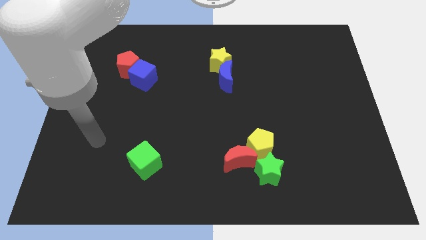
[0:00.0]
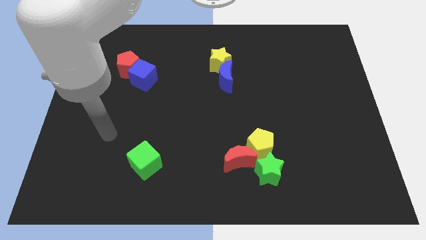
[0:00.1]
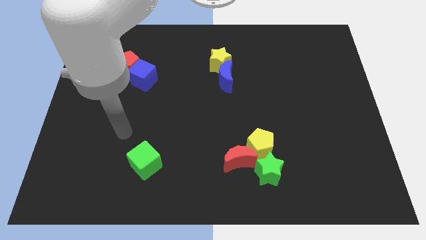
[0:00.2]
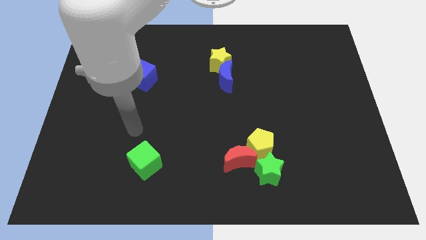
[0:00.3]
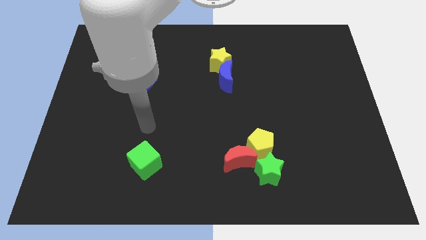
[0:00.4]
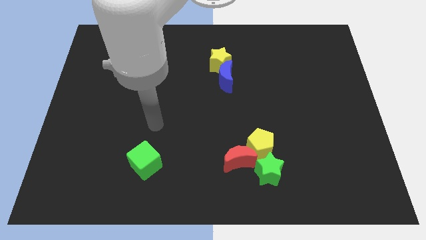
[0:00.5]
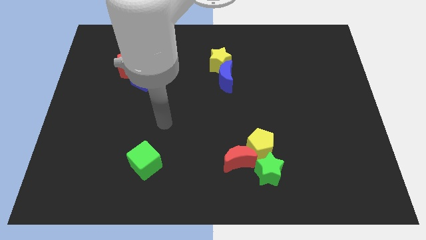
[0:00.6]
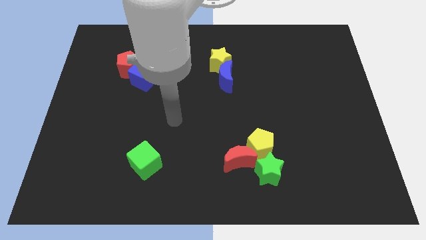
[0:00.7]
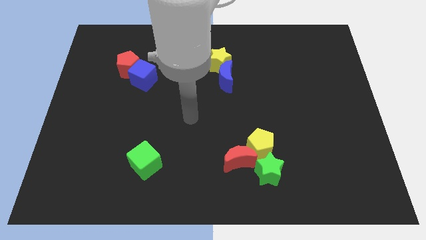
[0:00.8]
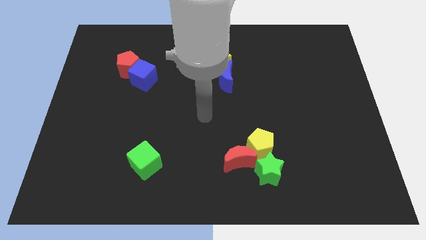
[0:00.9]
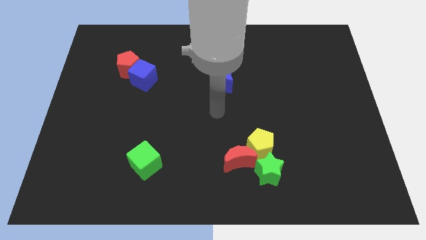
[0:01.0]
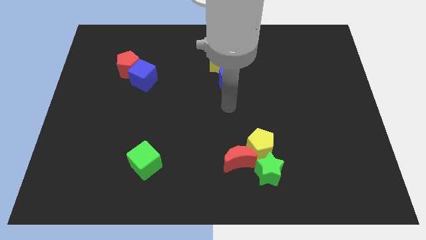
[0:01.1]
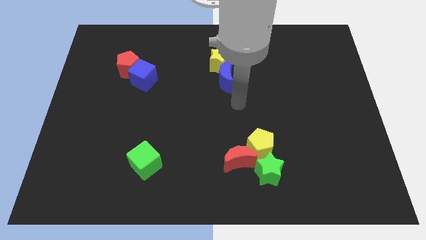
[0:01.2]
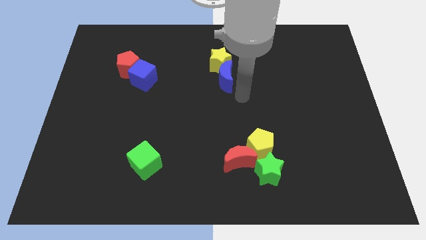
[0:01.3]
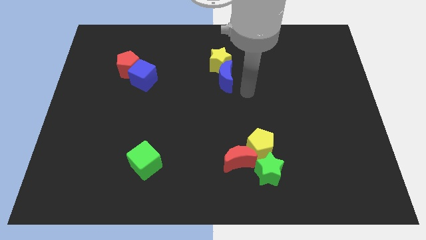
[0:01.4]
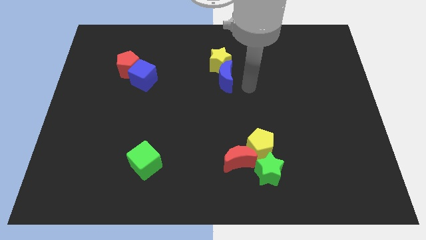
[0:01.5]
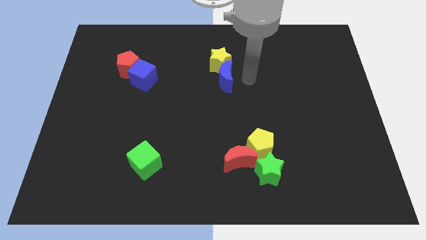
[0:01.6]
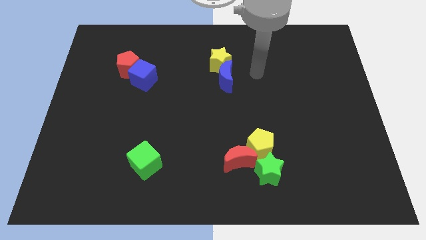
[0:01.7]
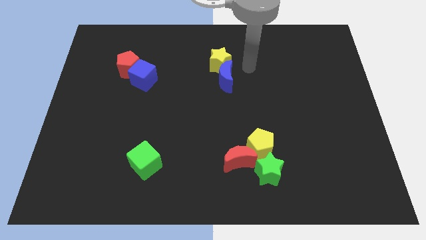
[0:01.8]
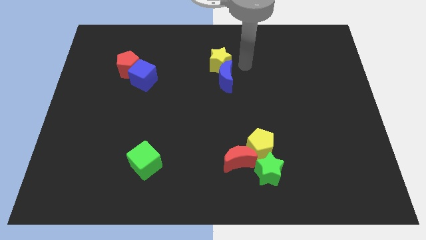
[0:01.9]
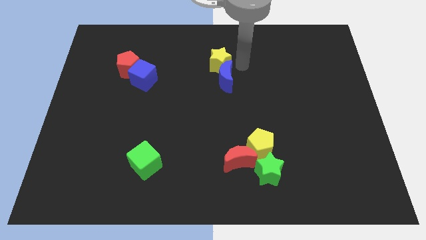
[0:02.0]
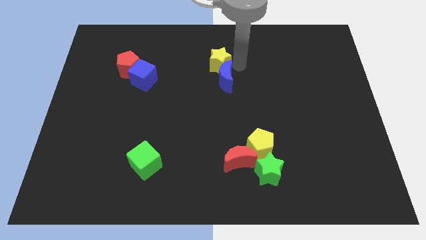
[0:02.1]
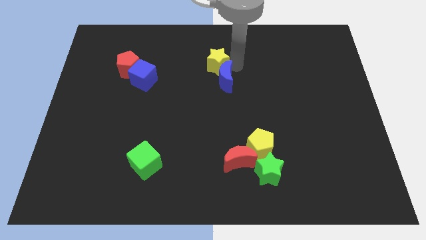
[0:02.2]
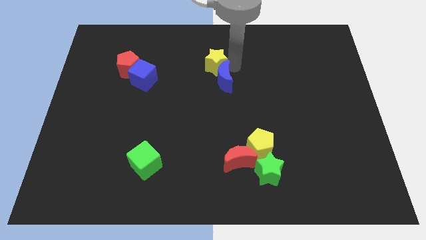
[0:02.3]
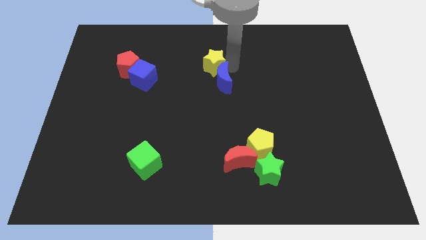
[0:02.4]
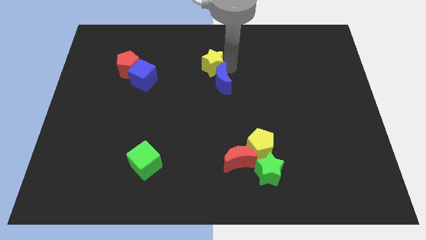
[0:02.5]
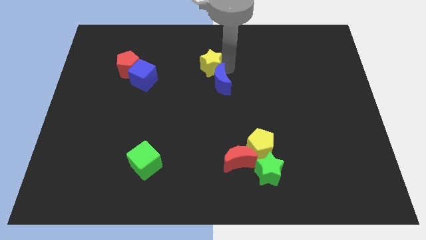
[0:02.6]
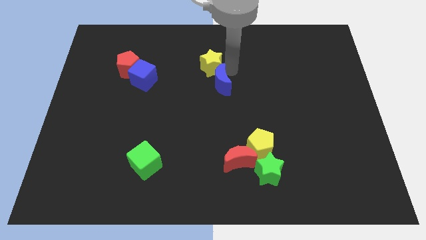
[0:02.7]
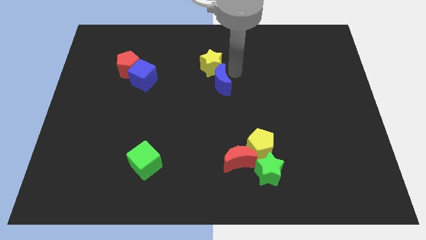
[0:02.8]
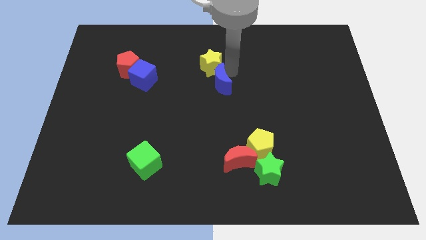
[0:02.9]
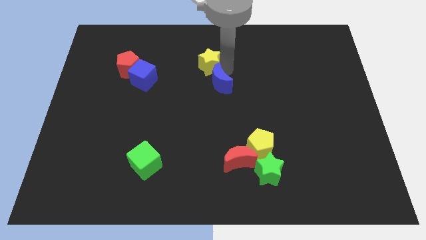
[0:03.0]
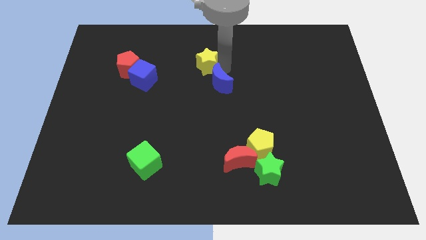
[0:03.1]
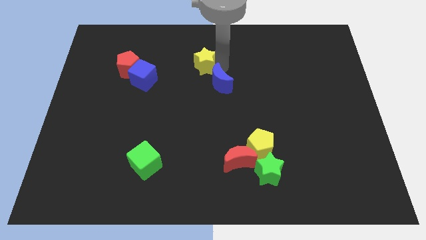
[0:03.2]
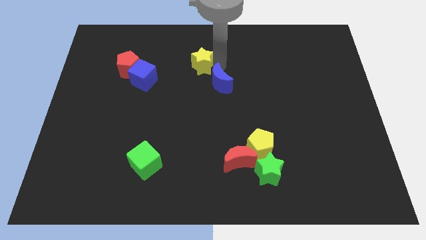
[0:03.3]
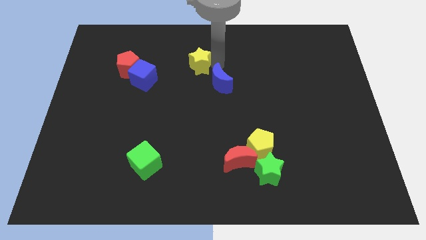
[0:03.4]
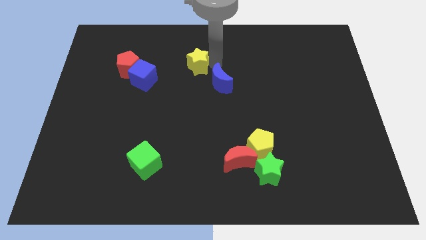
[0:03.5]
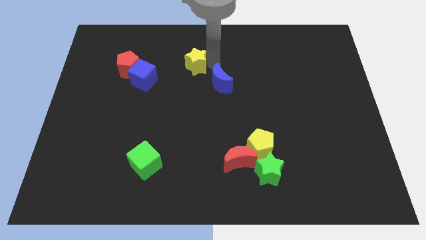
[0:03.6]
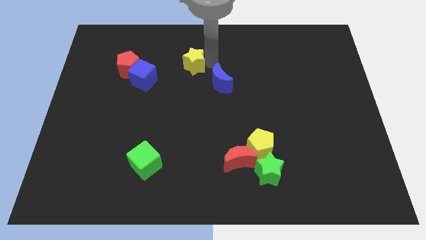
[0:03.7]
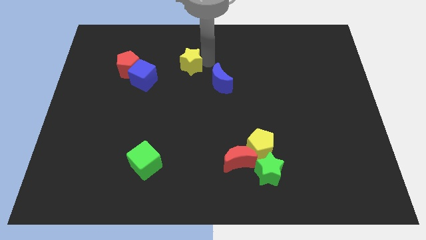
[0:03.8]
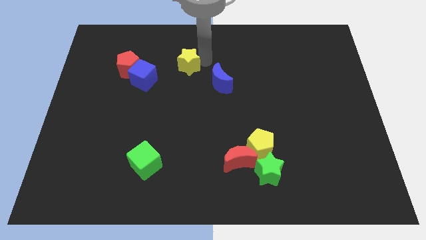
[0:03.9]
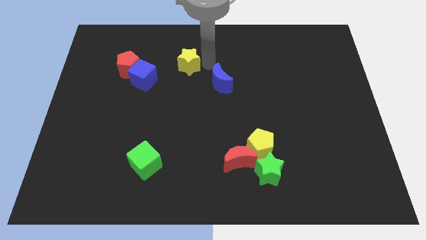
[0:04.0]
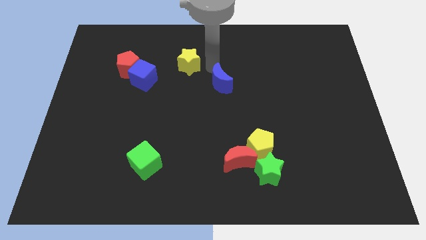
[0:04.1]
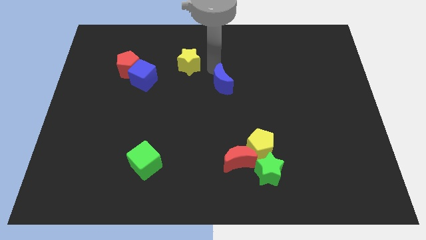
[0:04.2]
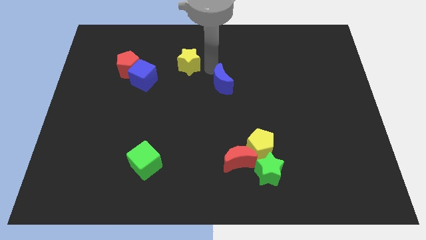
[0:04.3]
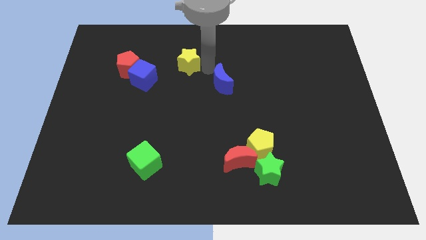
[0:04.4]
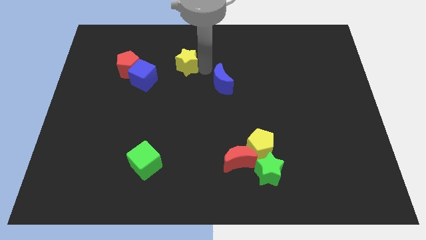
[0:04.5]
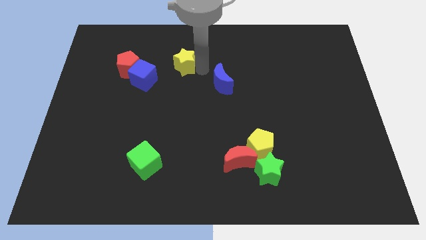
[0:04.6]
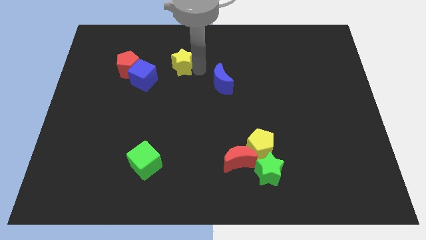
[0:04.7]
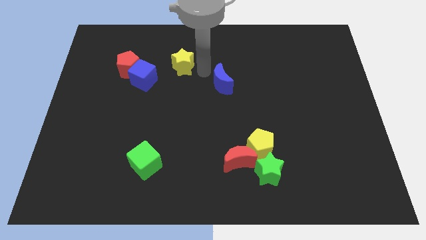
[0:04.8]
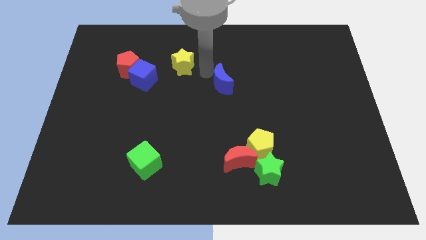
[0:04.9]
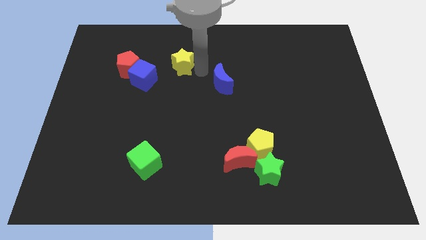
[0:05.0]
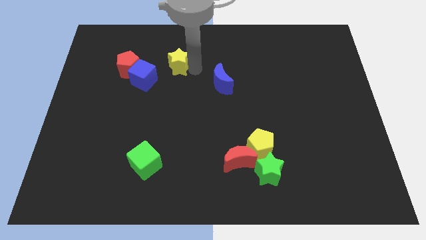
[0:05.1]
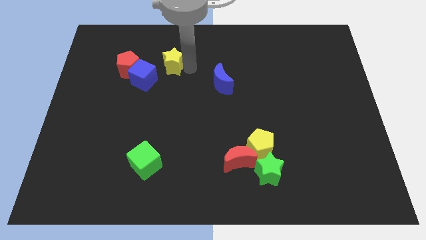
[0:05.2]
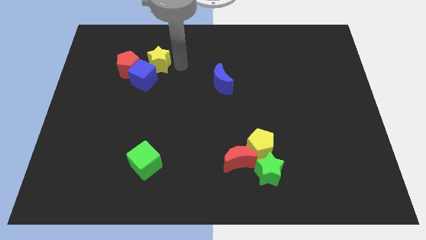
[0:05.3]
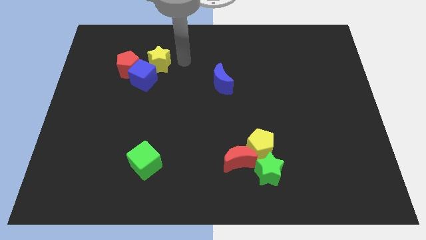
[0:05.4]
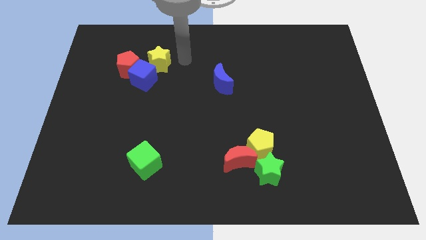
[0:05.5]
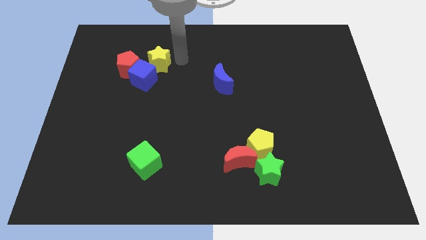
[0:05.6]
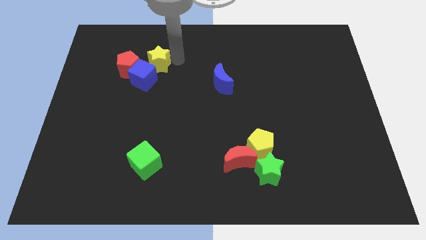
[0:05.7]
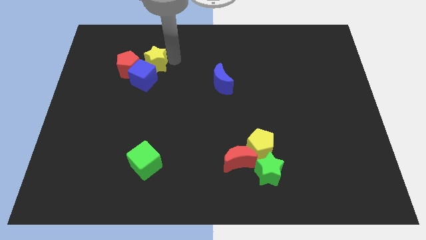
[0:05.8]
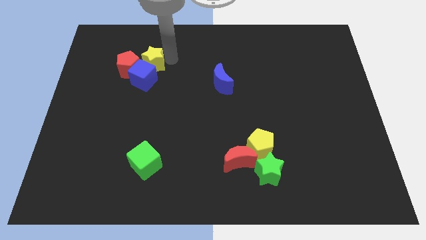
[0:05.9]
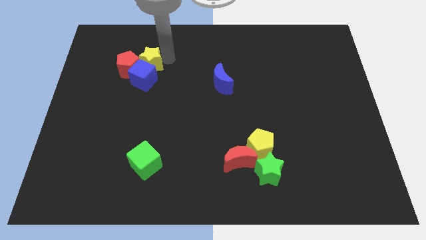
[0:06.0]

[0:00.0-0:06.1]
put the yellow star next to the red pentagon

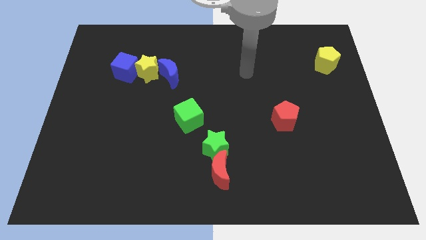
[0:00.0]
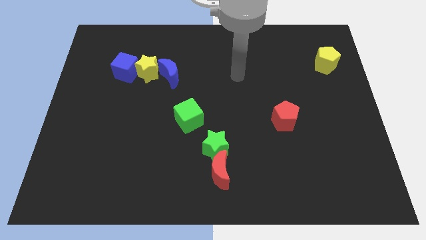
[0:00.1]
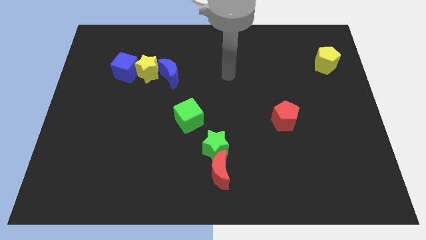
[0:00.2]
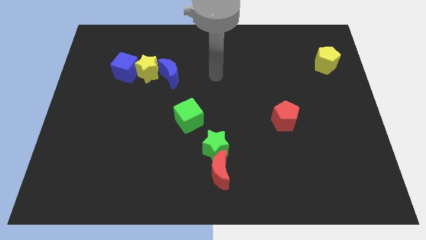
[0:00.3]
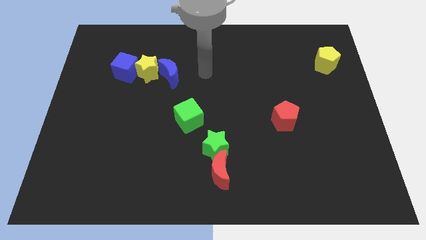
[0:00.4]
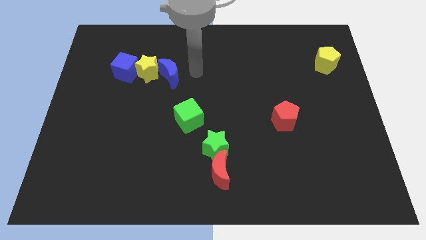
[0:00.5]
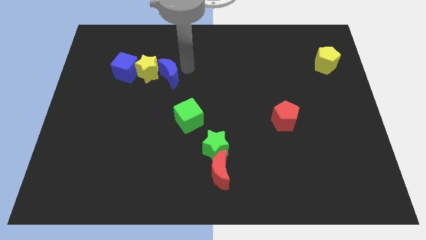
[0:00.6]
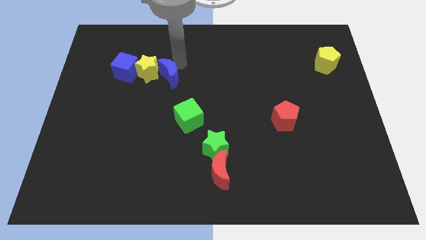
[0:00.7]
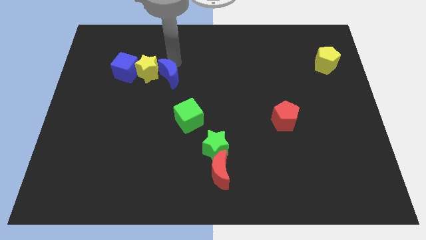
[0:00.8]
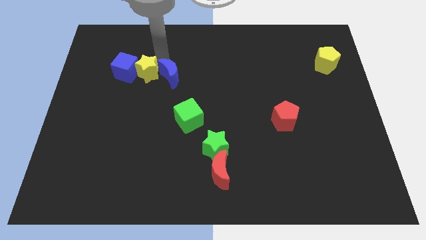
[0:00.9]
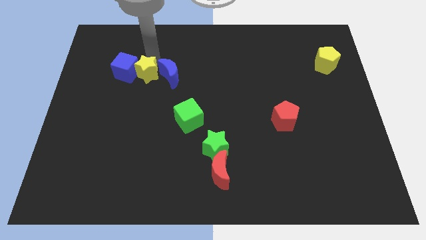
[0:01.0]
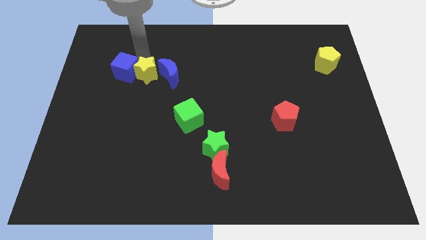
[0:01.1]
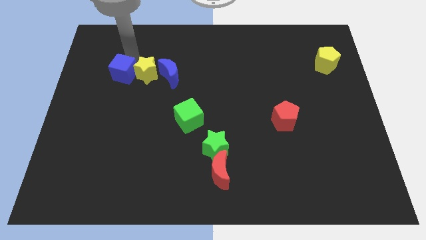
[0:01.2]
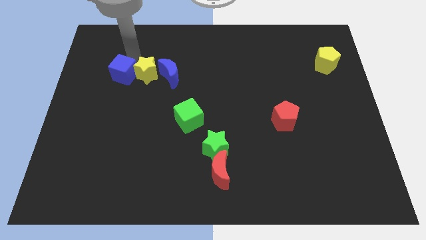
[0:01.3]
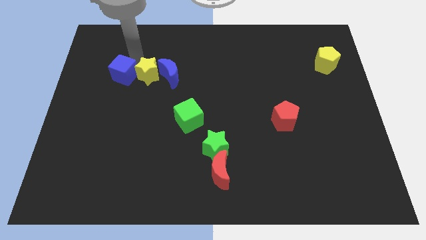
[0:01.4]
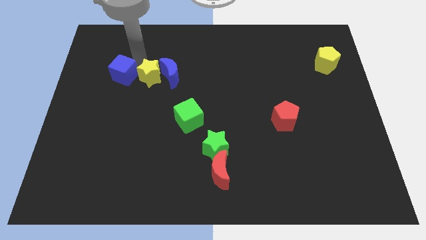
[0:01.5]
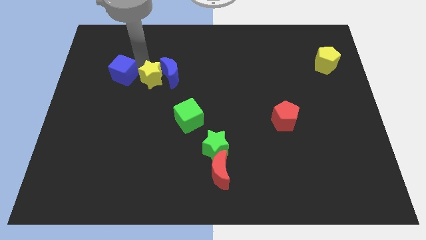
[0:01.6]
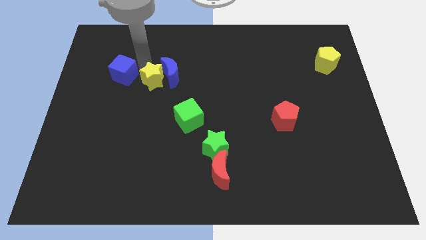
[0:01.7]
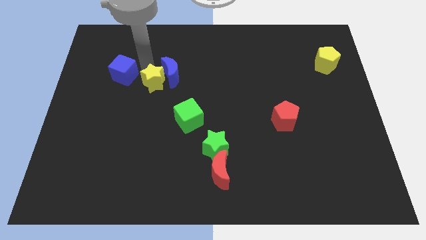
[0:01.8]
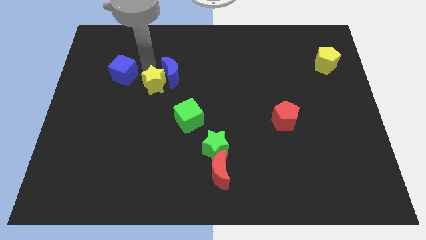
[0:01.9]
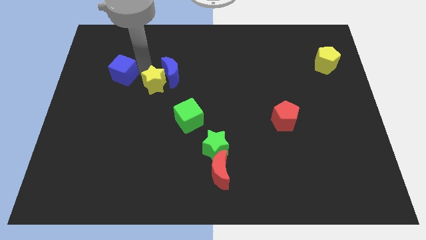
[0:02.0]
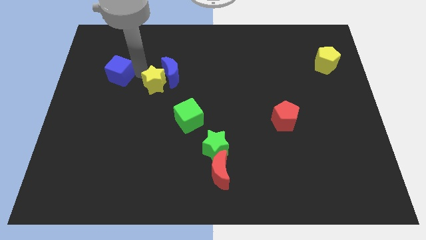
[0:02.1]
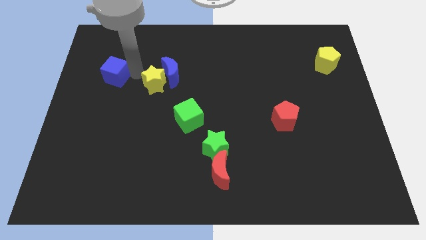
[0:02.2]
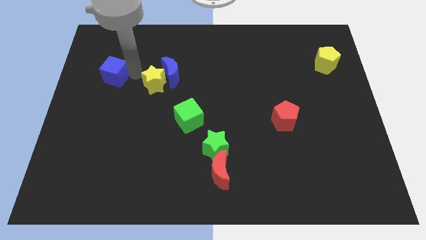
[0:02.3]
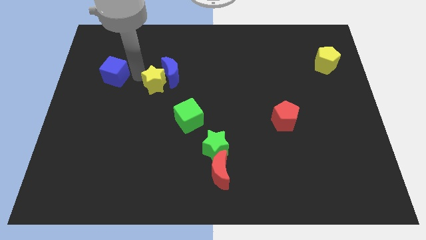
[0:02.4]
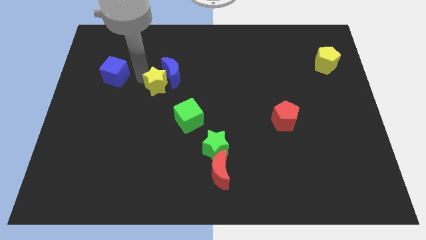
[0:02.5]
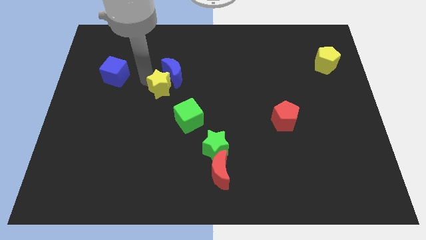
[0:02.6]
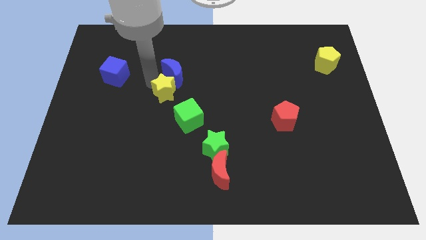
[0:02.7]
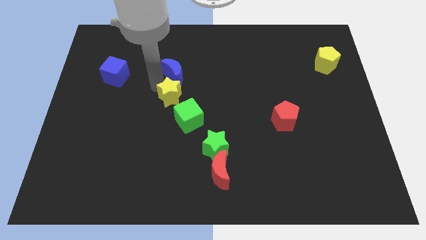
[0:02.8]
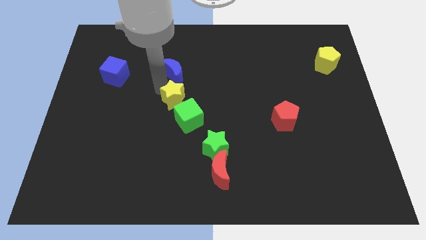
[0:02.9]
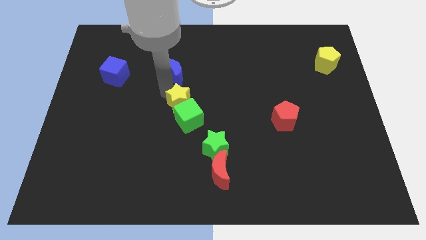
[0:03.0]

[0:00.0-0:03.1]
slide the yellow star close to the green cube
